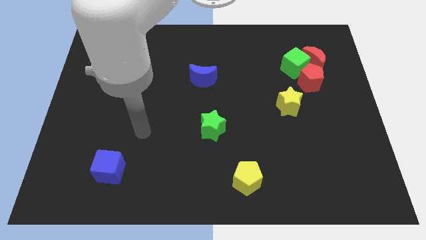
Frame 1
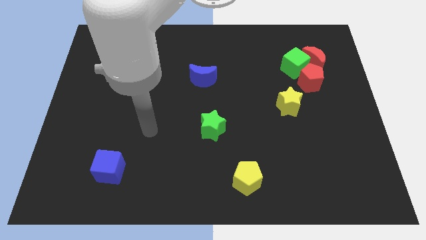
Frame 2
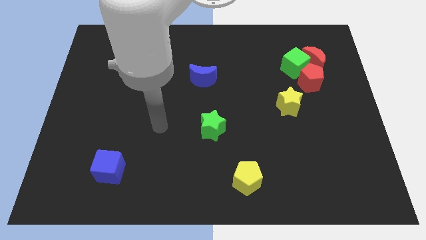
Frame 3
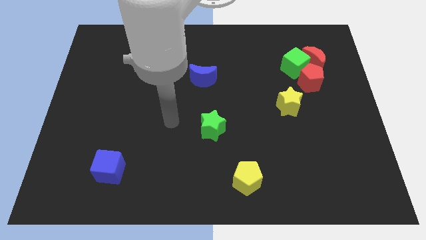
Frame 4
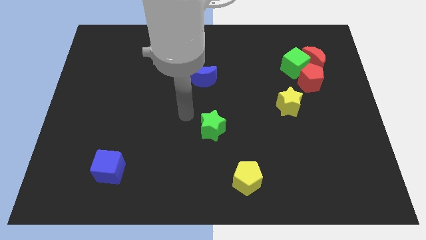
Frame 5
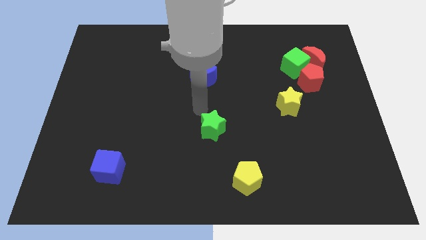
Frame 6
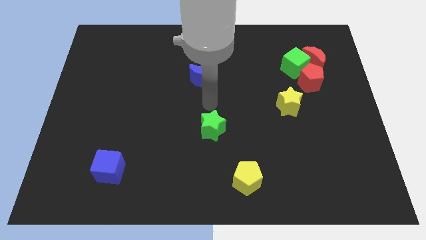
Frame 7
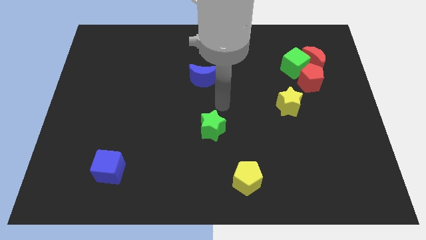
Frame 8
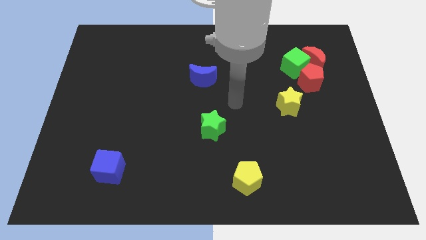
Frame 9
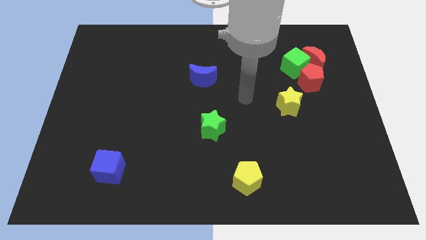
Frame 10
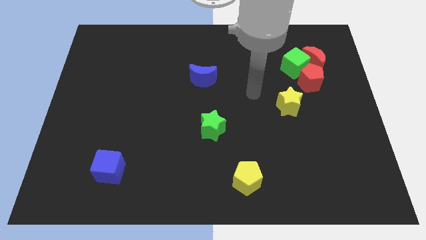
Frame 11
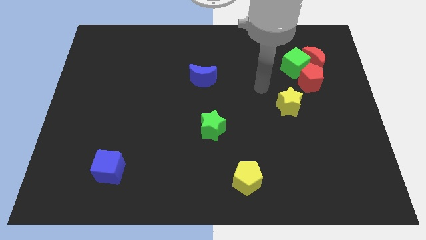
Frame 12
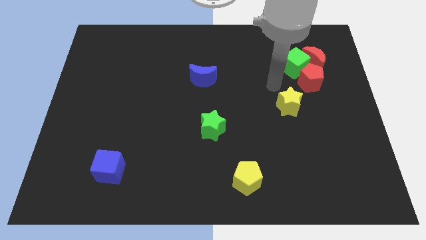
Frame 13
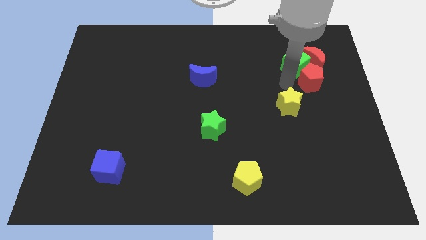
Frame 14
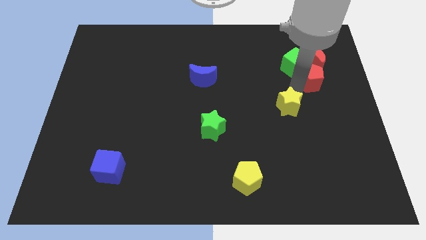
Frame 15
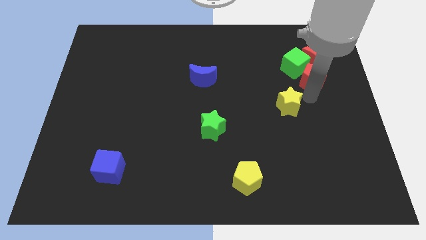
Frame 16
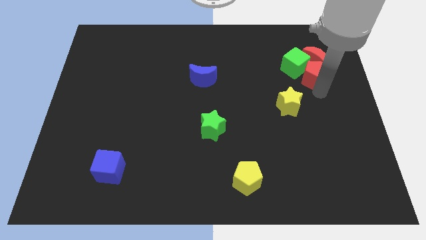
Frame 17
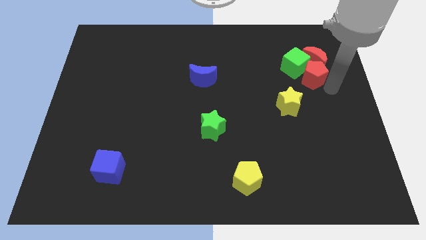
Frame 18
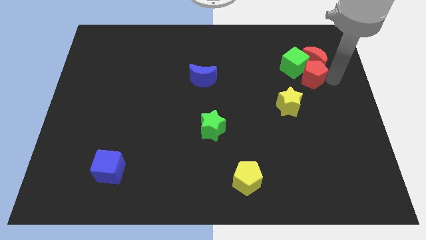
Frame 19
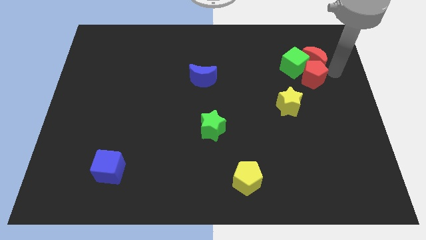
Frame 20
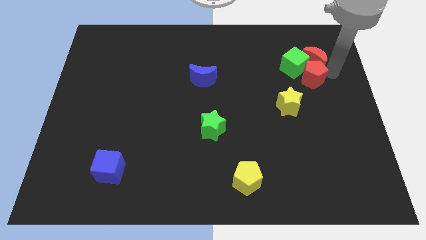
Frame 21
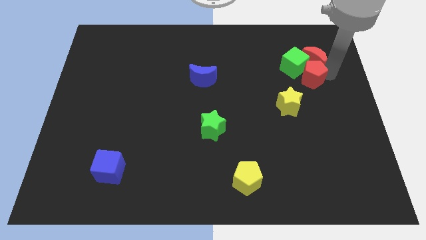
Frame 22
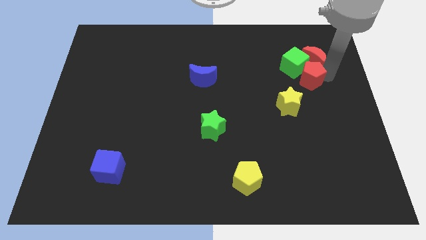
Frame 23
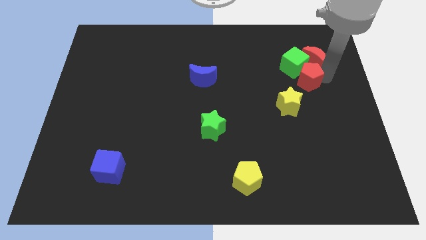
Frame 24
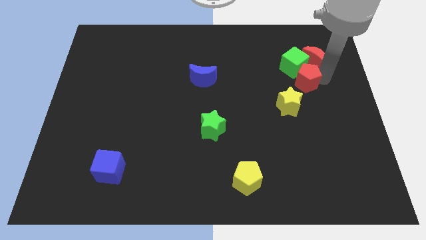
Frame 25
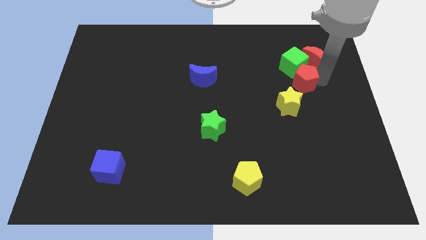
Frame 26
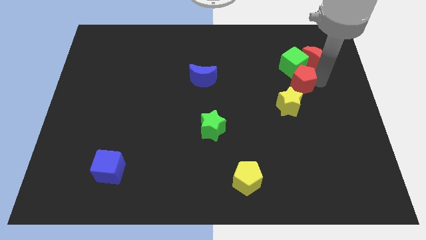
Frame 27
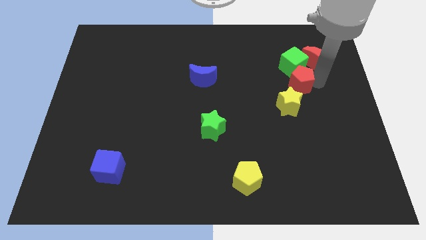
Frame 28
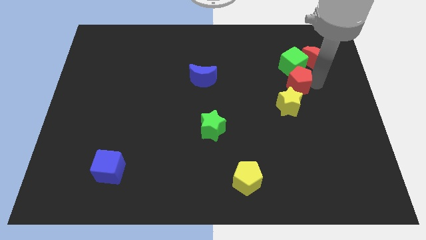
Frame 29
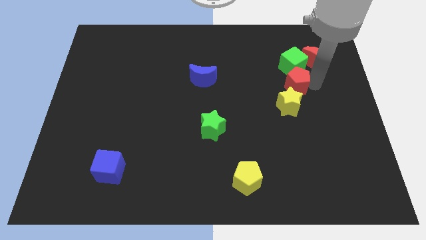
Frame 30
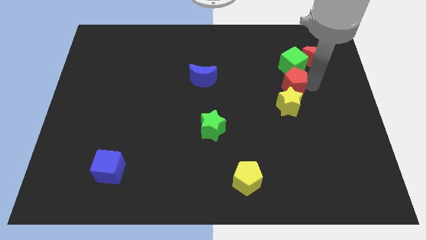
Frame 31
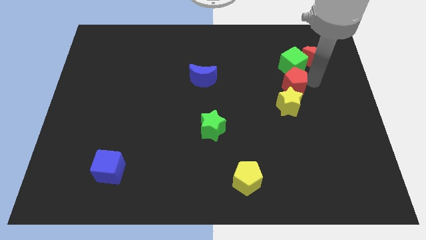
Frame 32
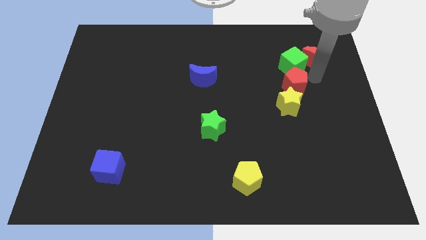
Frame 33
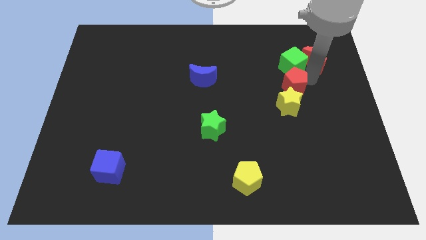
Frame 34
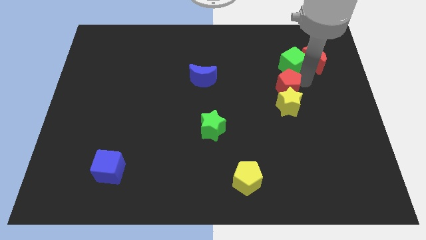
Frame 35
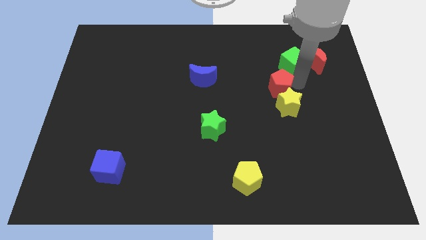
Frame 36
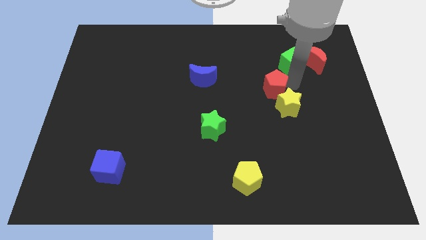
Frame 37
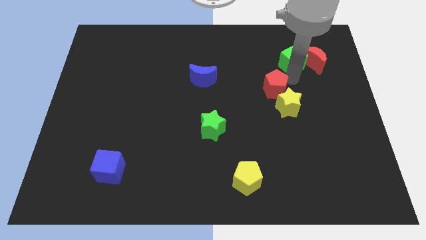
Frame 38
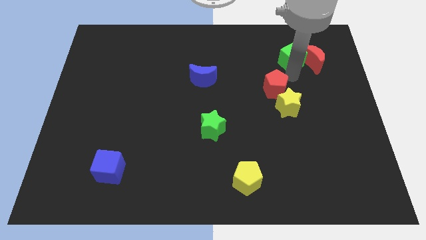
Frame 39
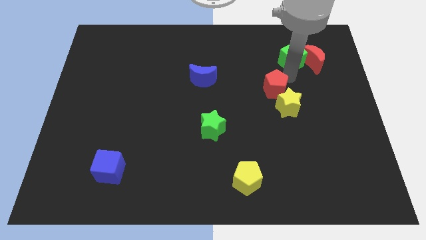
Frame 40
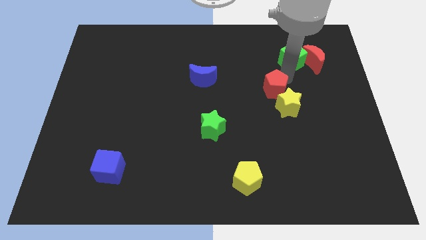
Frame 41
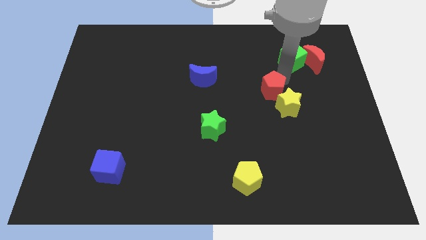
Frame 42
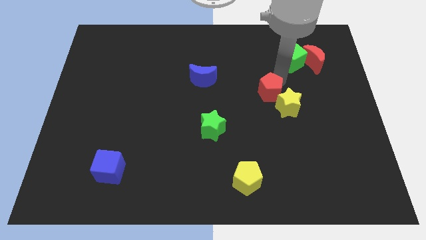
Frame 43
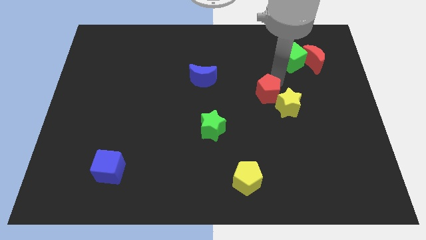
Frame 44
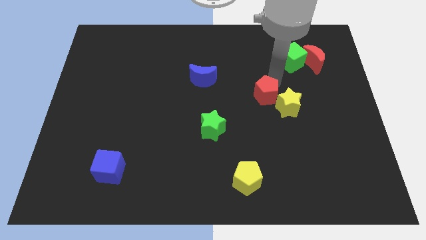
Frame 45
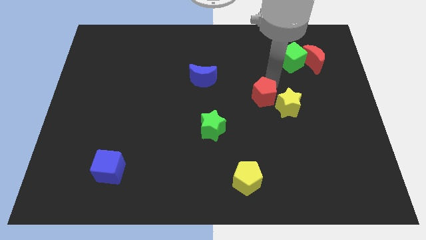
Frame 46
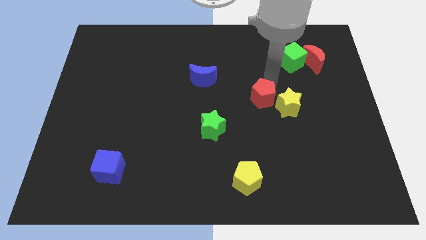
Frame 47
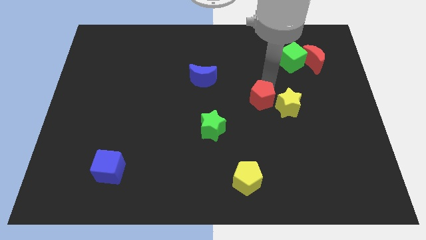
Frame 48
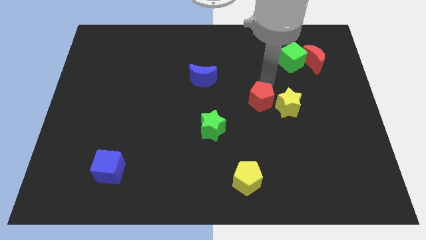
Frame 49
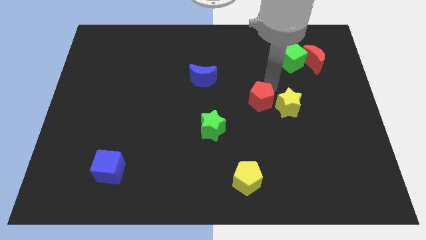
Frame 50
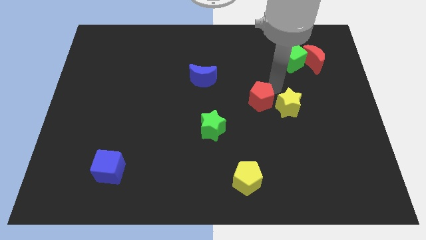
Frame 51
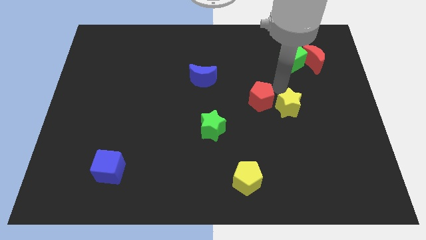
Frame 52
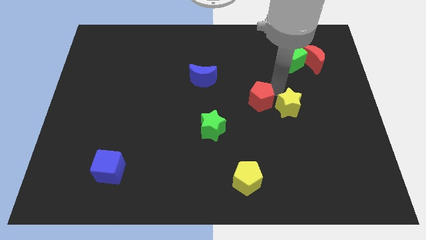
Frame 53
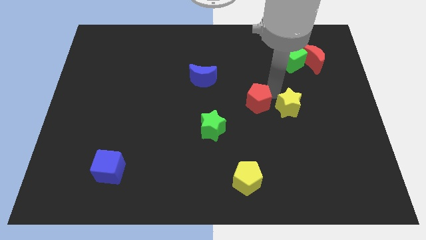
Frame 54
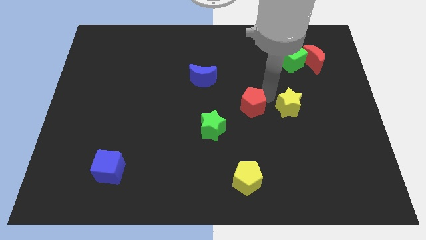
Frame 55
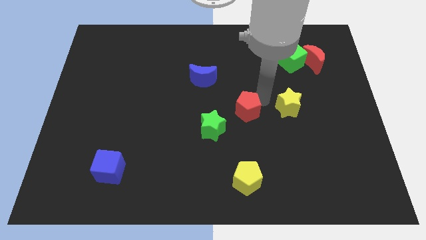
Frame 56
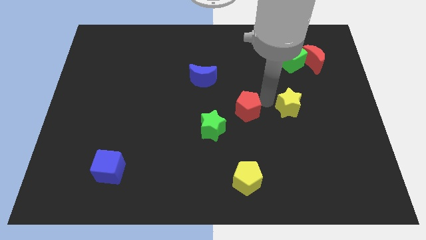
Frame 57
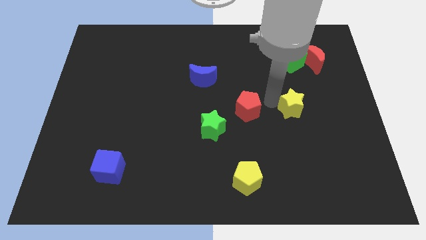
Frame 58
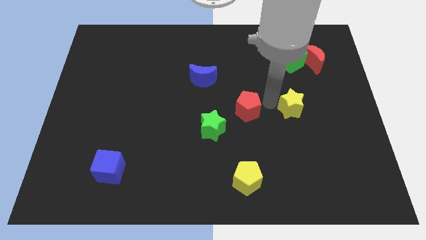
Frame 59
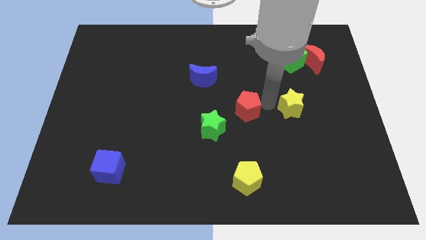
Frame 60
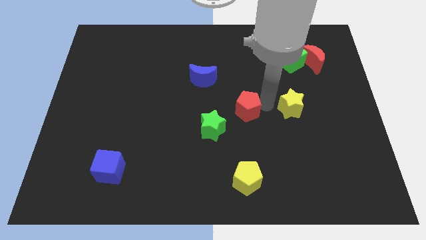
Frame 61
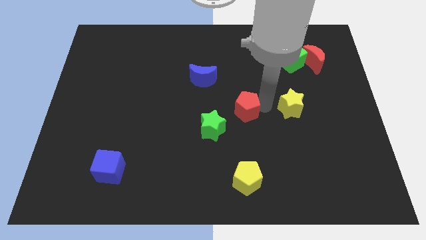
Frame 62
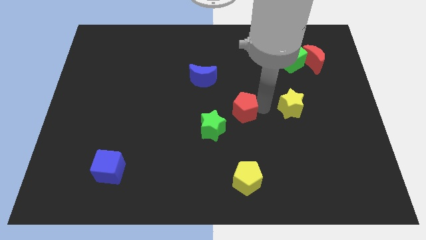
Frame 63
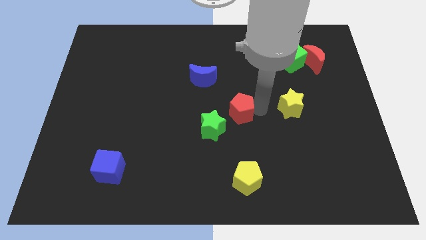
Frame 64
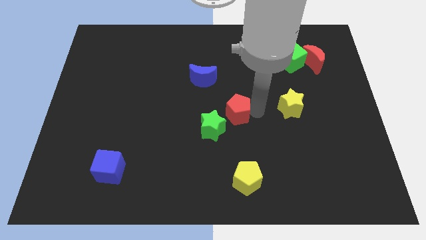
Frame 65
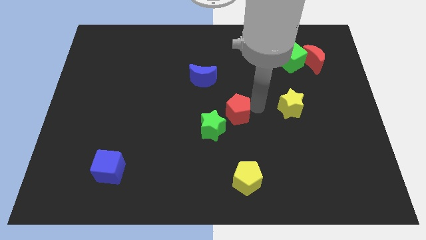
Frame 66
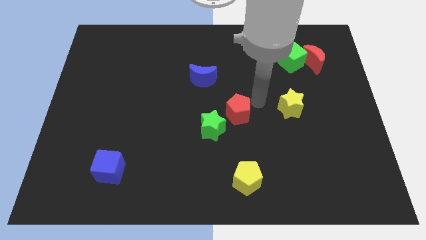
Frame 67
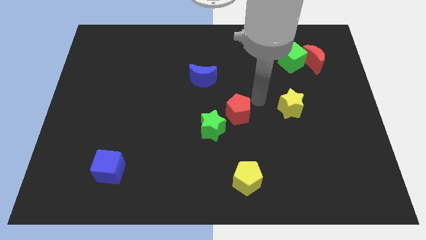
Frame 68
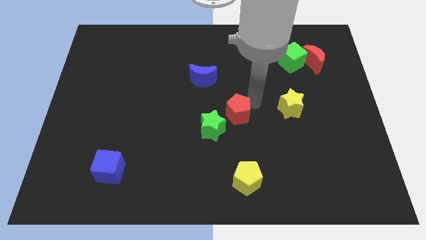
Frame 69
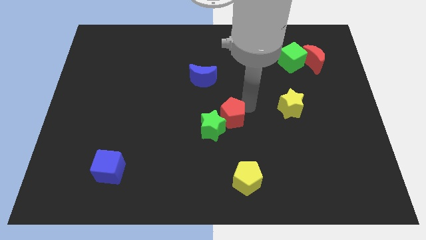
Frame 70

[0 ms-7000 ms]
slide the red pentagon to the green star
